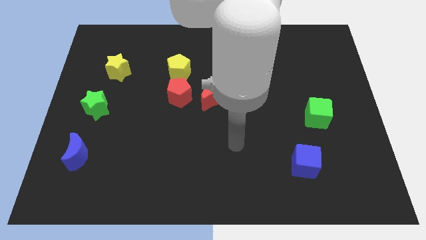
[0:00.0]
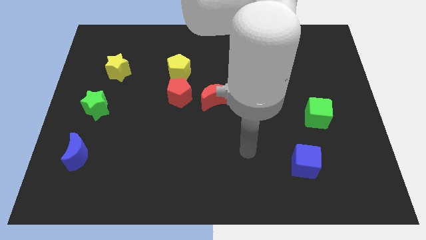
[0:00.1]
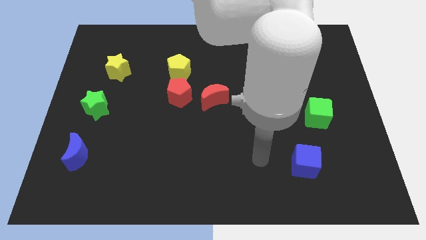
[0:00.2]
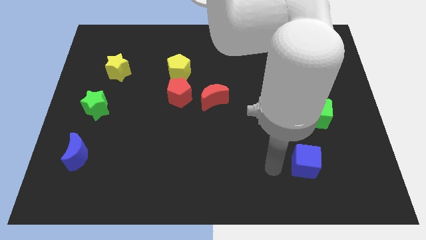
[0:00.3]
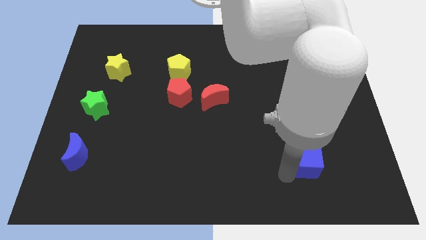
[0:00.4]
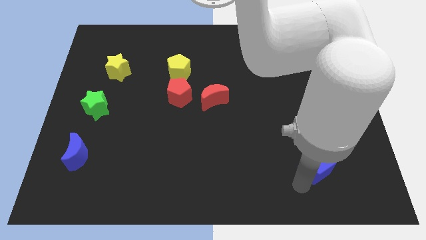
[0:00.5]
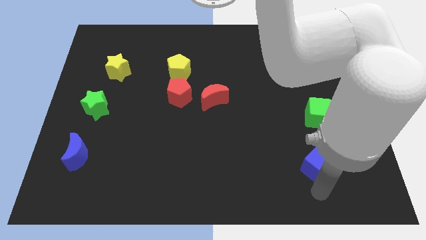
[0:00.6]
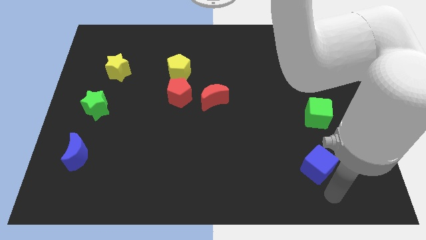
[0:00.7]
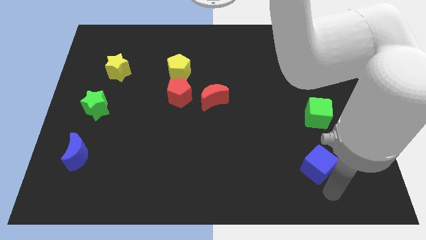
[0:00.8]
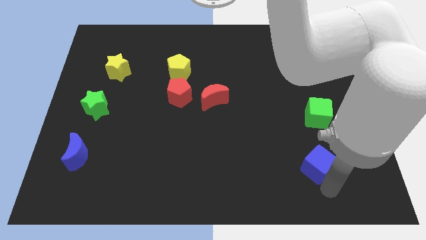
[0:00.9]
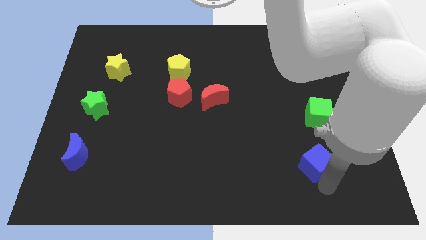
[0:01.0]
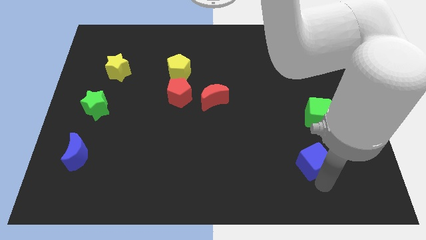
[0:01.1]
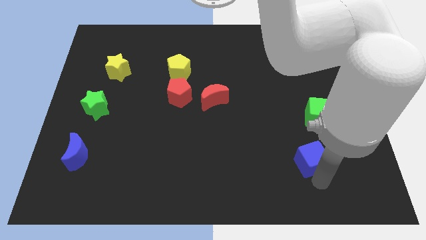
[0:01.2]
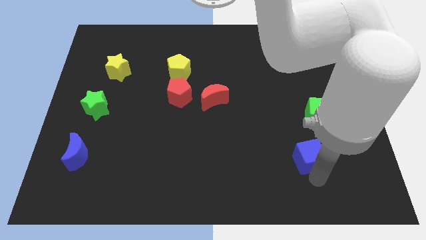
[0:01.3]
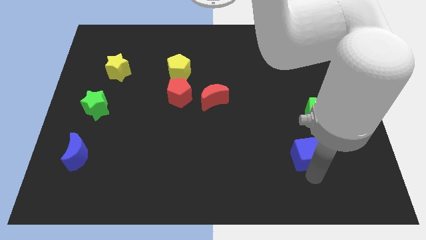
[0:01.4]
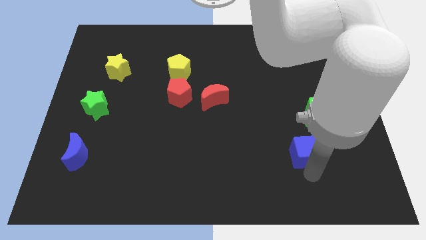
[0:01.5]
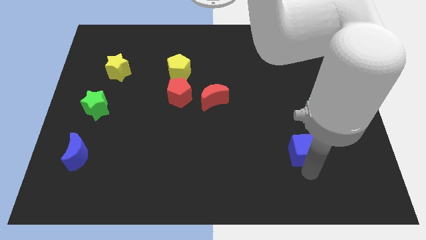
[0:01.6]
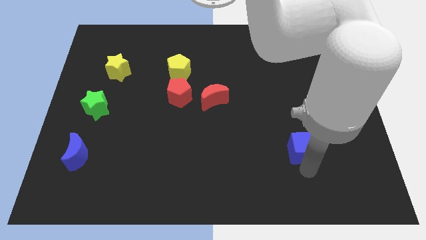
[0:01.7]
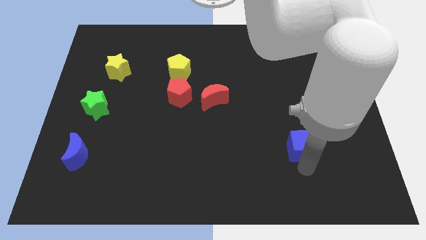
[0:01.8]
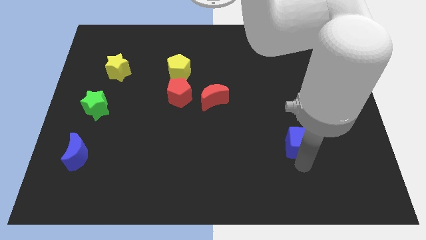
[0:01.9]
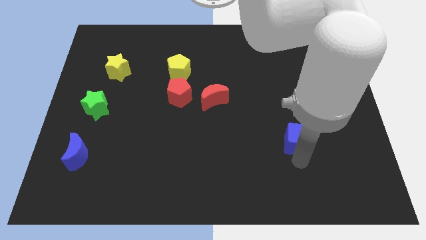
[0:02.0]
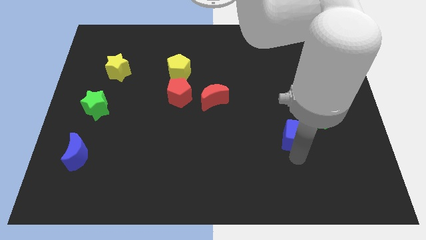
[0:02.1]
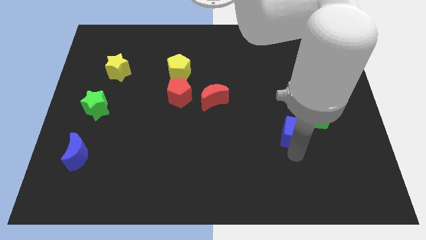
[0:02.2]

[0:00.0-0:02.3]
slightly move the blue cube up

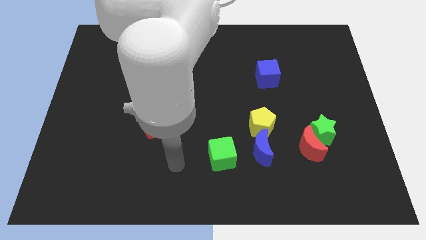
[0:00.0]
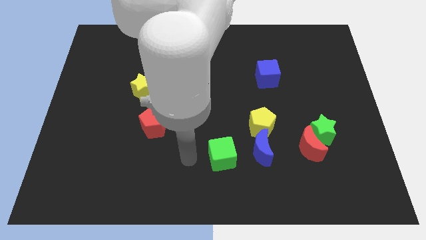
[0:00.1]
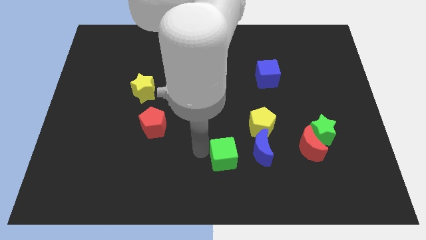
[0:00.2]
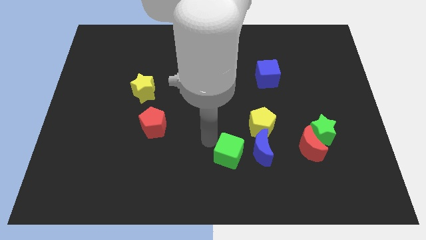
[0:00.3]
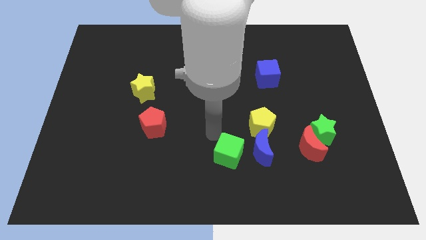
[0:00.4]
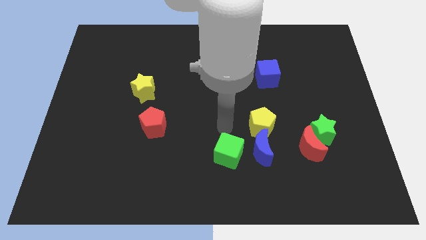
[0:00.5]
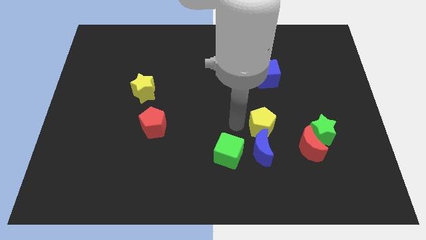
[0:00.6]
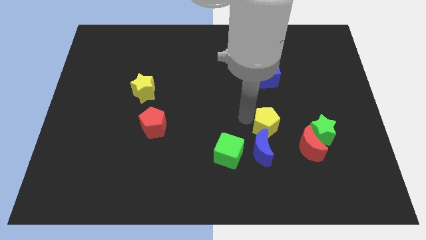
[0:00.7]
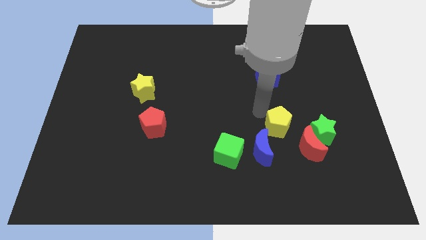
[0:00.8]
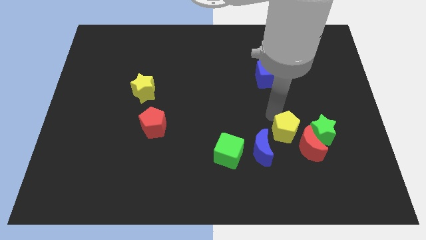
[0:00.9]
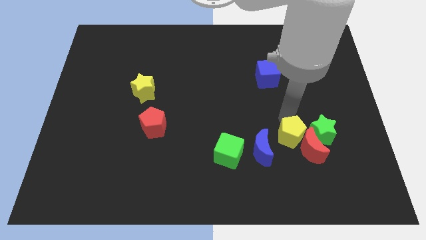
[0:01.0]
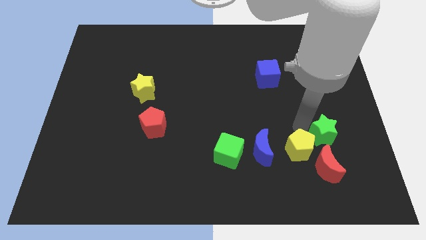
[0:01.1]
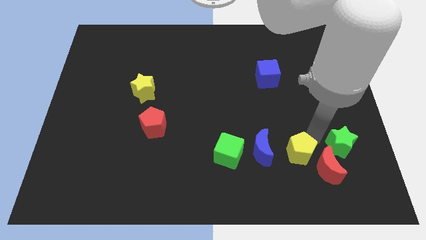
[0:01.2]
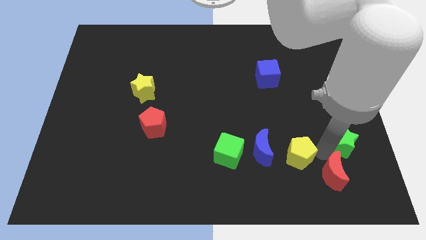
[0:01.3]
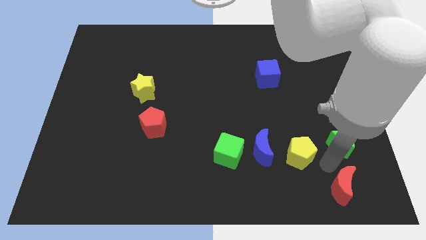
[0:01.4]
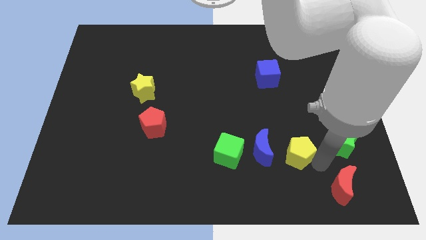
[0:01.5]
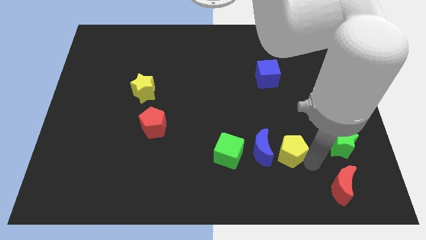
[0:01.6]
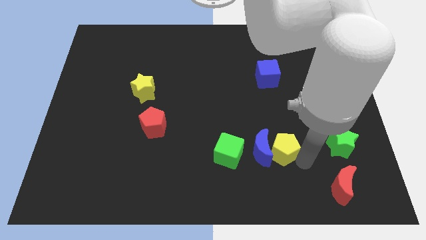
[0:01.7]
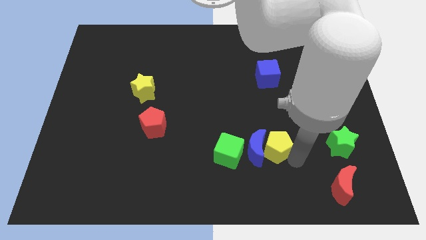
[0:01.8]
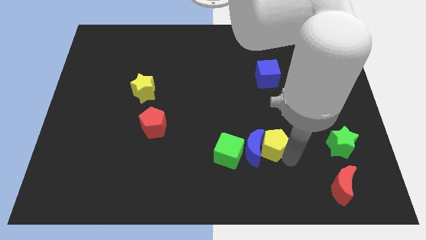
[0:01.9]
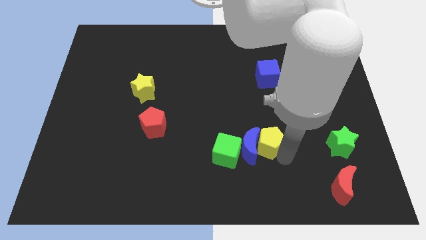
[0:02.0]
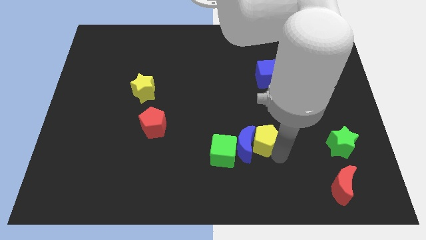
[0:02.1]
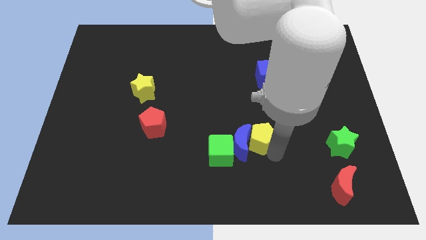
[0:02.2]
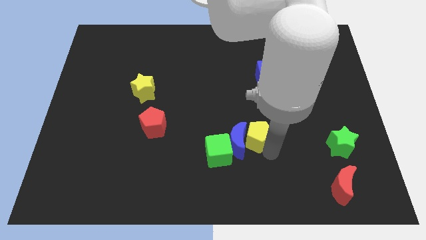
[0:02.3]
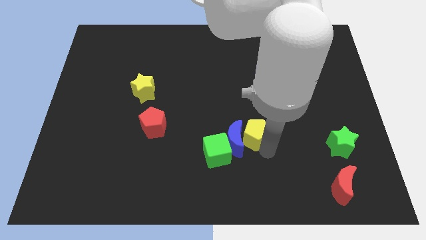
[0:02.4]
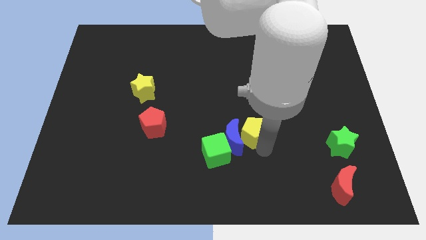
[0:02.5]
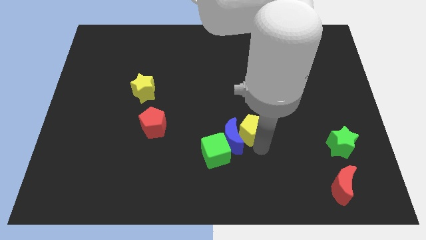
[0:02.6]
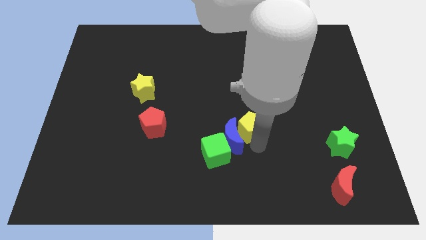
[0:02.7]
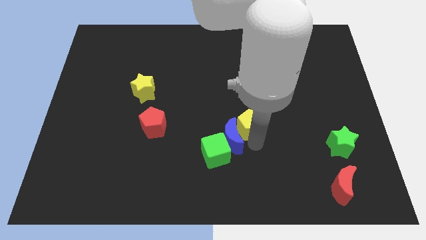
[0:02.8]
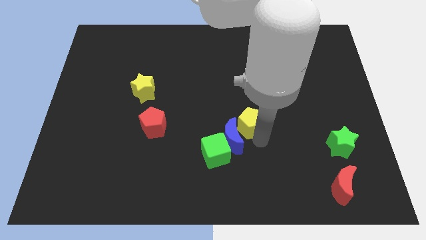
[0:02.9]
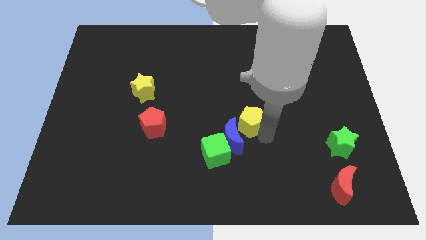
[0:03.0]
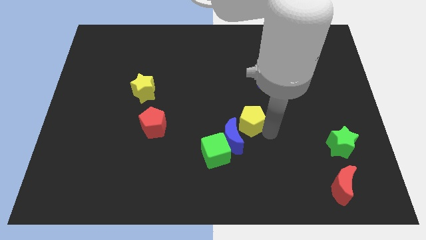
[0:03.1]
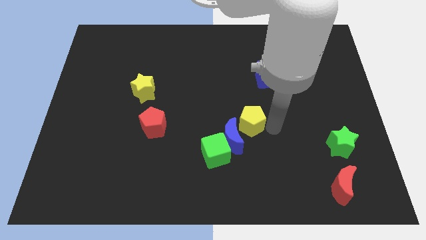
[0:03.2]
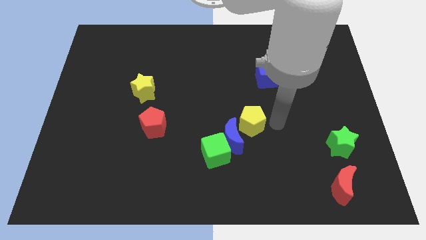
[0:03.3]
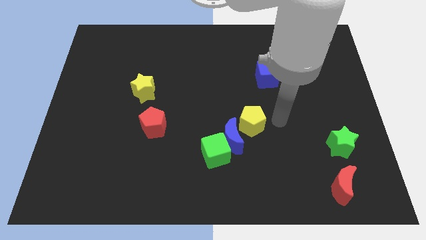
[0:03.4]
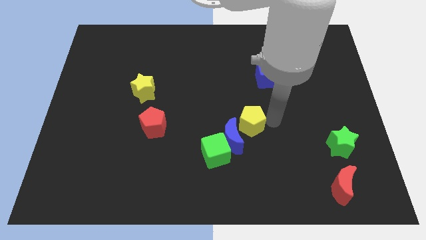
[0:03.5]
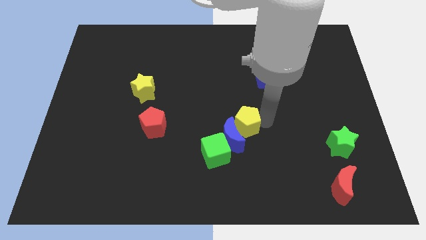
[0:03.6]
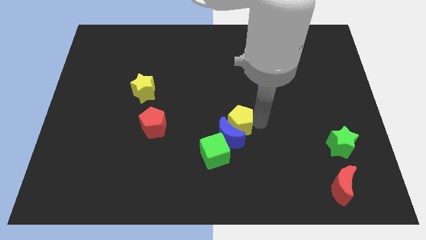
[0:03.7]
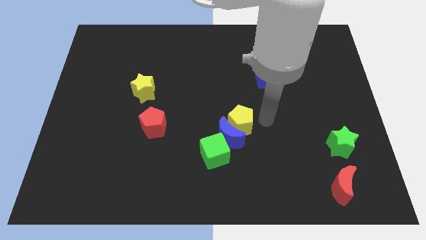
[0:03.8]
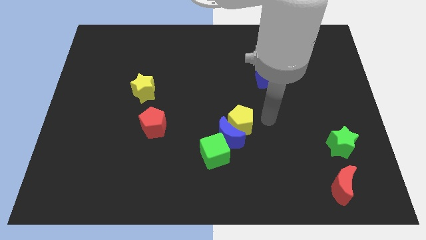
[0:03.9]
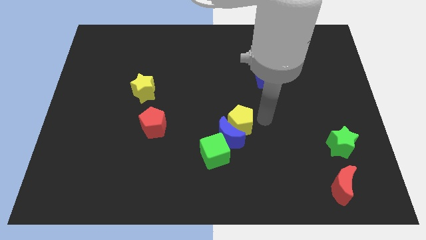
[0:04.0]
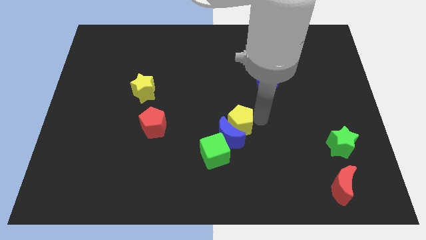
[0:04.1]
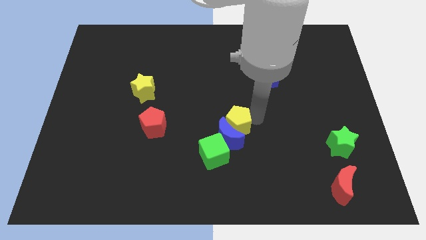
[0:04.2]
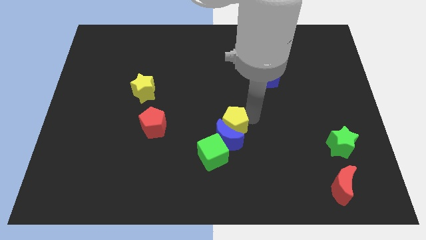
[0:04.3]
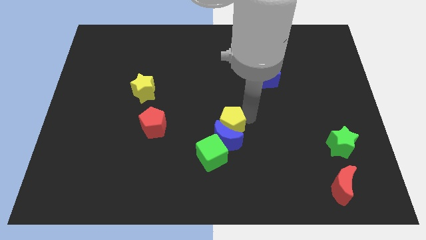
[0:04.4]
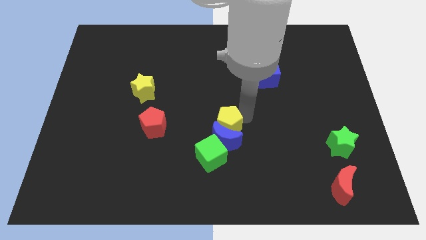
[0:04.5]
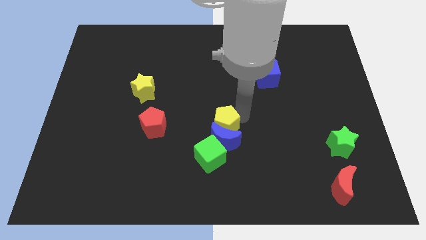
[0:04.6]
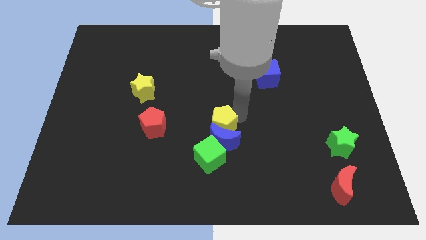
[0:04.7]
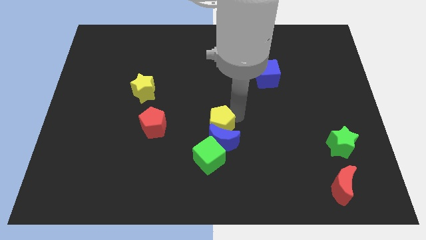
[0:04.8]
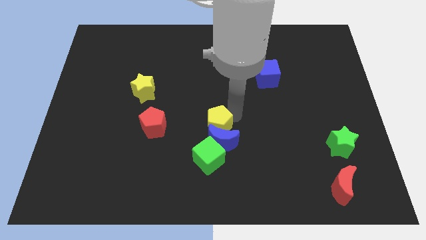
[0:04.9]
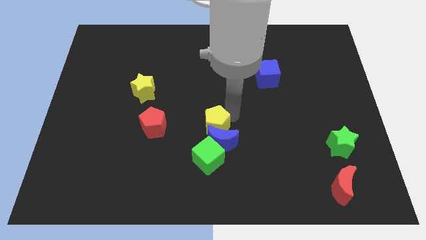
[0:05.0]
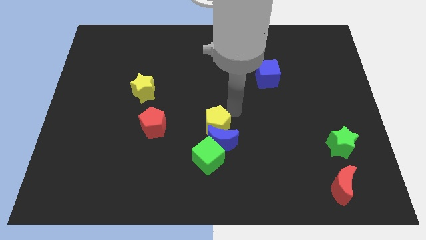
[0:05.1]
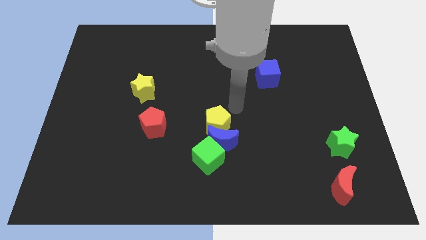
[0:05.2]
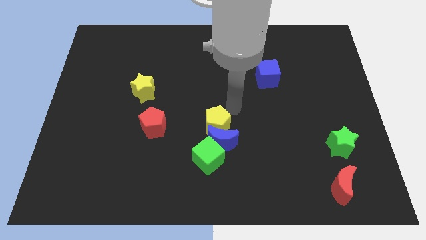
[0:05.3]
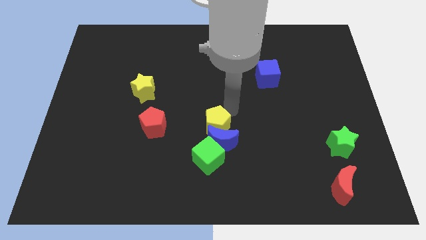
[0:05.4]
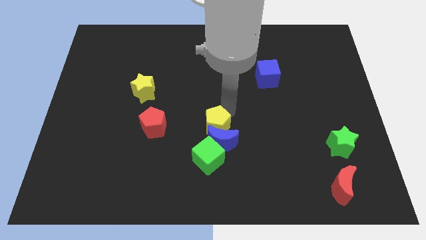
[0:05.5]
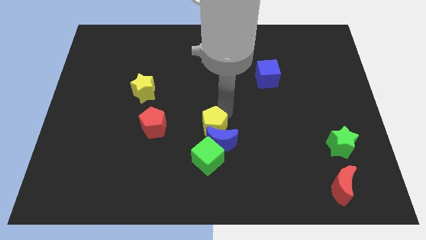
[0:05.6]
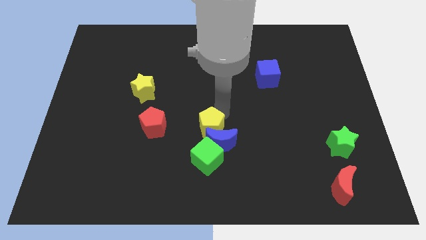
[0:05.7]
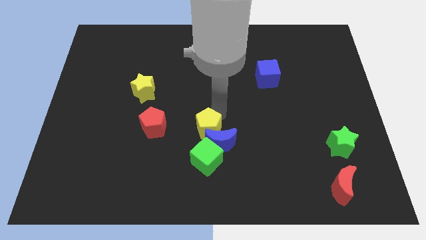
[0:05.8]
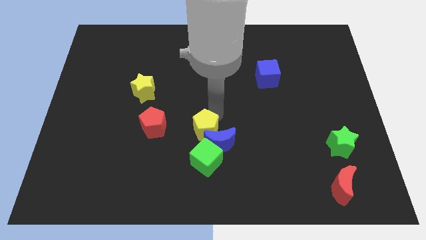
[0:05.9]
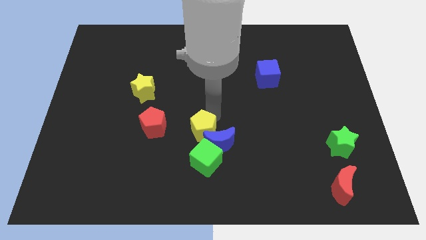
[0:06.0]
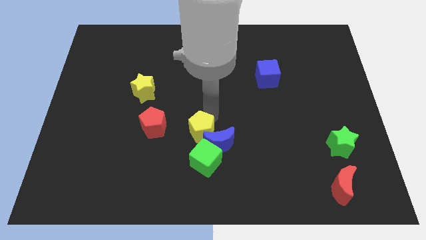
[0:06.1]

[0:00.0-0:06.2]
push the yellow pentagon slightly diagonally down and to the left
